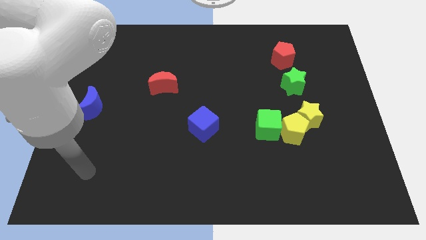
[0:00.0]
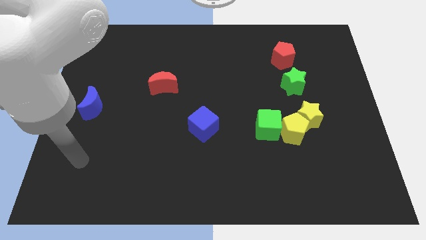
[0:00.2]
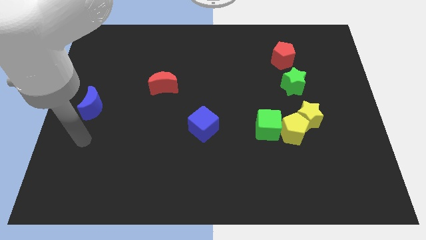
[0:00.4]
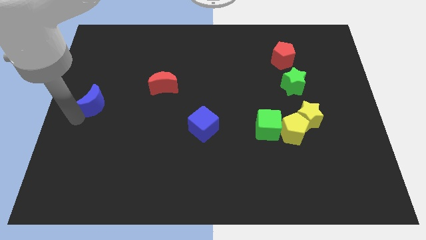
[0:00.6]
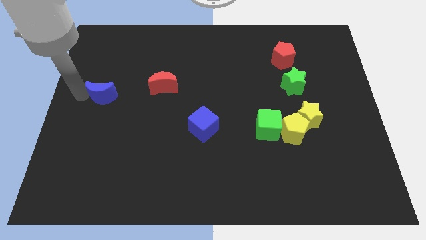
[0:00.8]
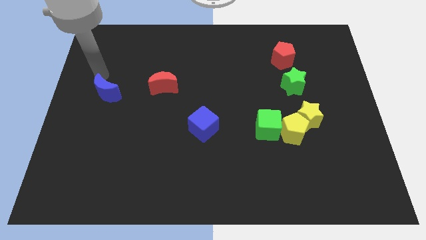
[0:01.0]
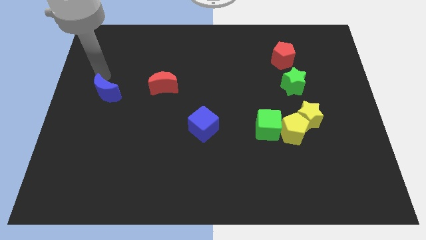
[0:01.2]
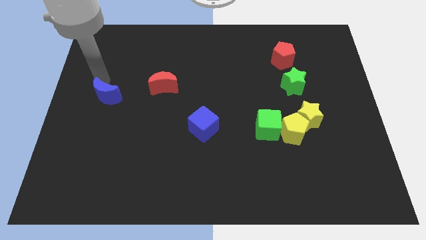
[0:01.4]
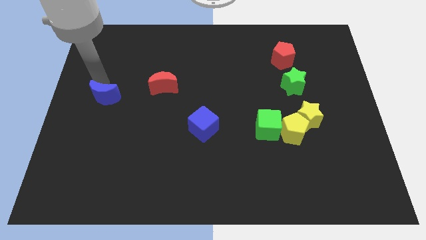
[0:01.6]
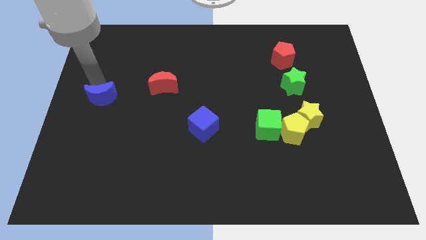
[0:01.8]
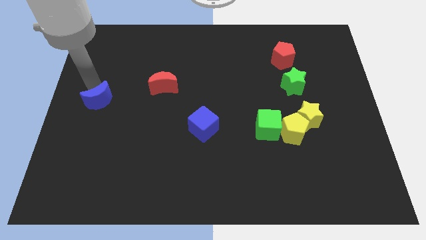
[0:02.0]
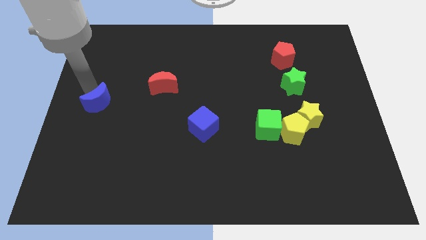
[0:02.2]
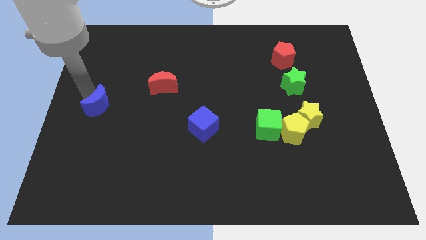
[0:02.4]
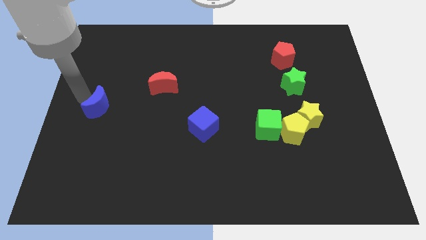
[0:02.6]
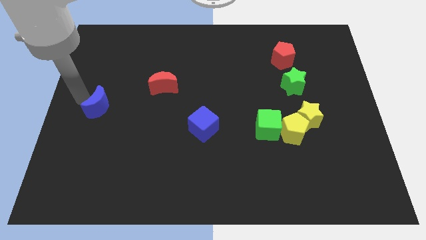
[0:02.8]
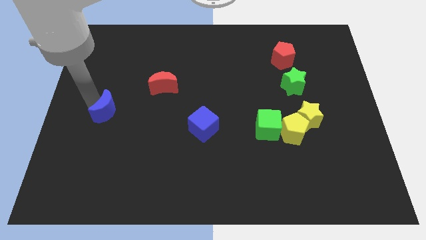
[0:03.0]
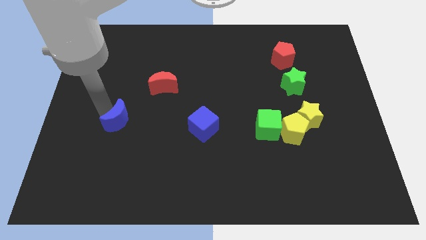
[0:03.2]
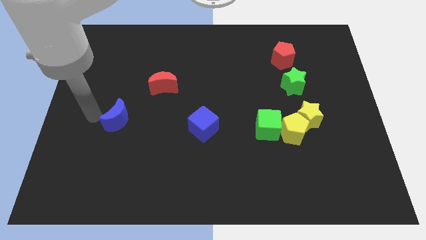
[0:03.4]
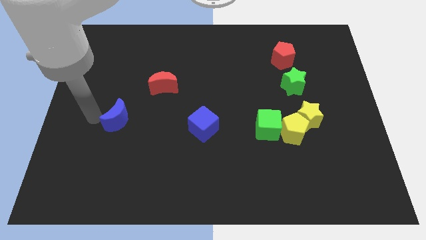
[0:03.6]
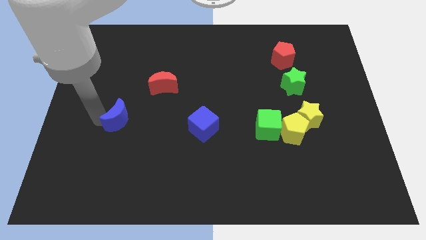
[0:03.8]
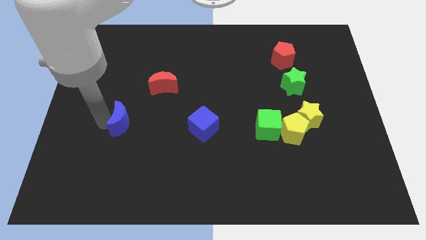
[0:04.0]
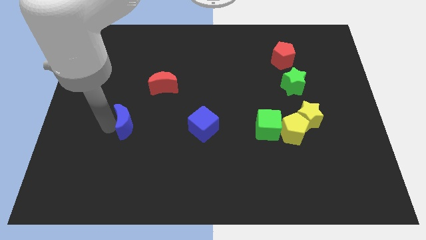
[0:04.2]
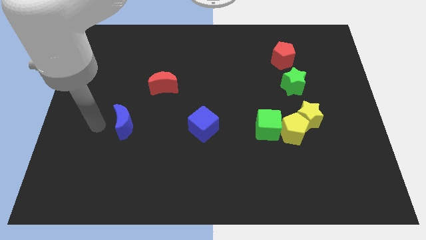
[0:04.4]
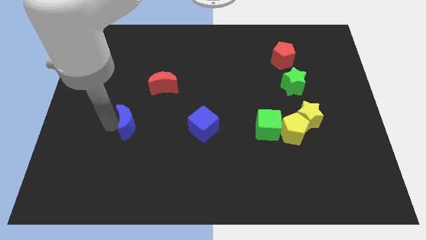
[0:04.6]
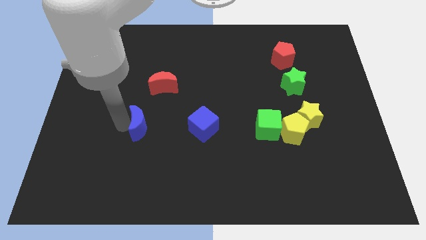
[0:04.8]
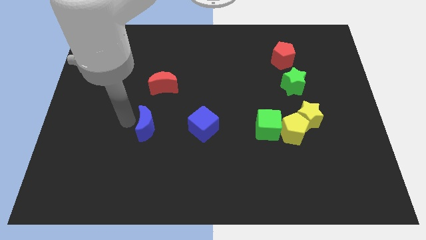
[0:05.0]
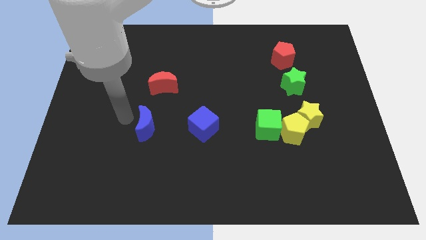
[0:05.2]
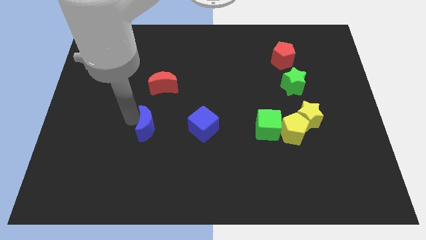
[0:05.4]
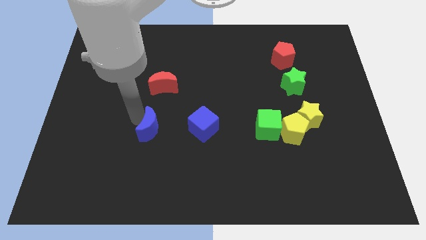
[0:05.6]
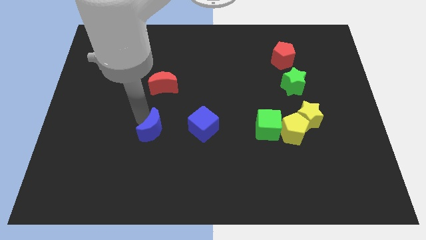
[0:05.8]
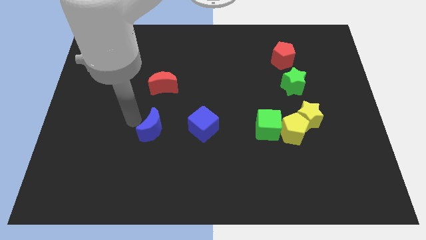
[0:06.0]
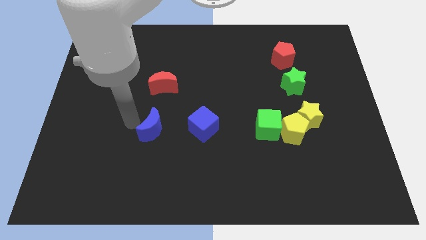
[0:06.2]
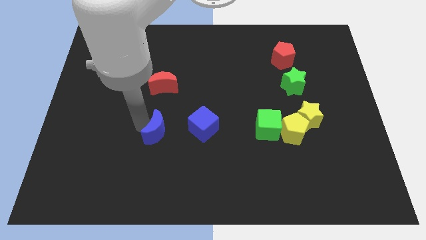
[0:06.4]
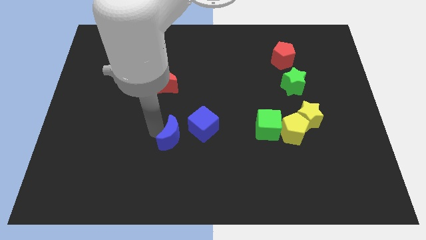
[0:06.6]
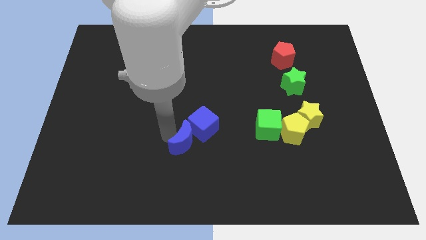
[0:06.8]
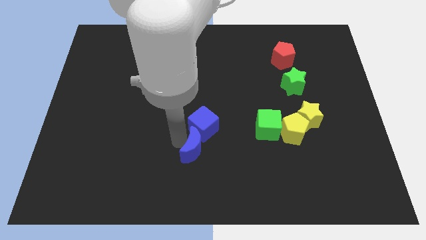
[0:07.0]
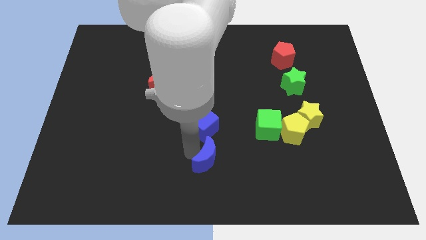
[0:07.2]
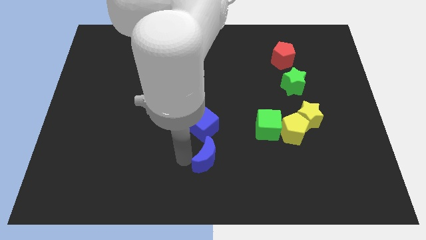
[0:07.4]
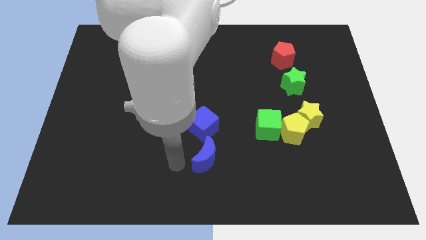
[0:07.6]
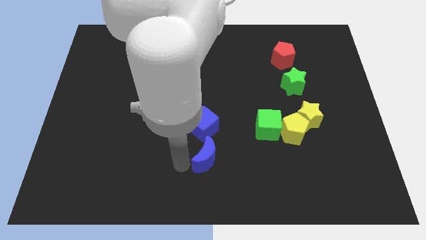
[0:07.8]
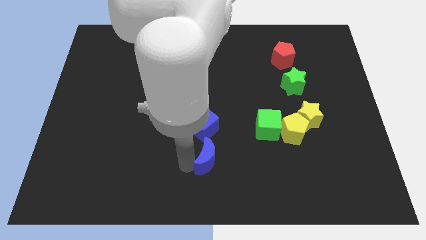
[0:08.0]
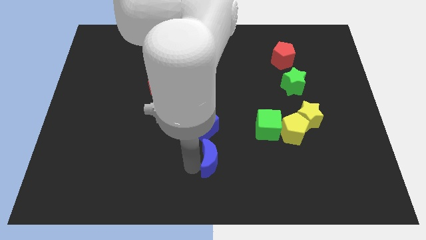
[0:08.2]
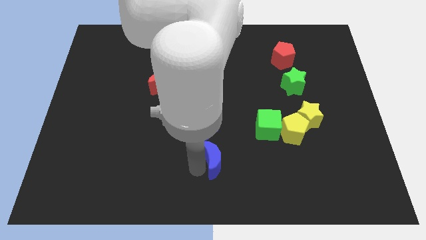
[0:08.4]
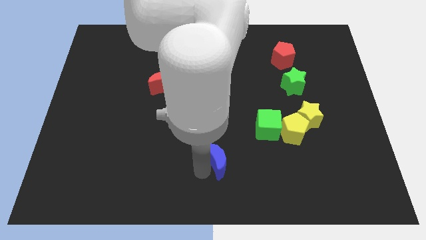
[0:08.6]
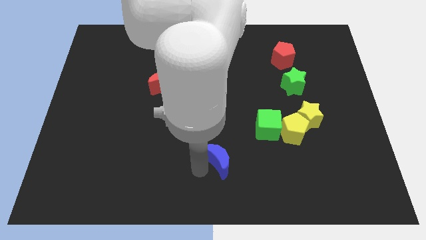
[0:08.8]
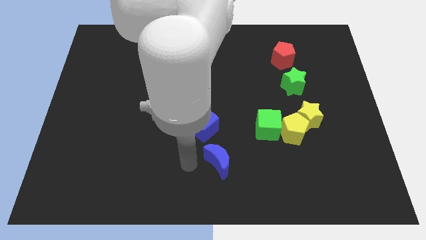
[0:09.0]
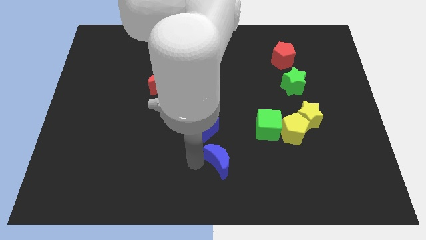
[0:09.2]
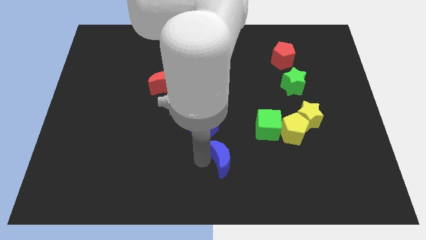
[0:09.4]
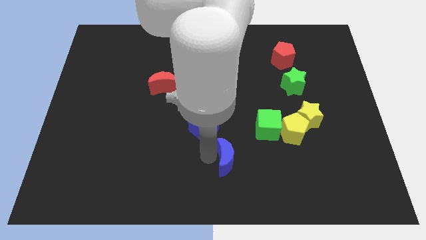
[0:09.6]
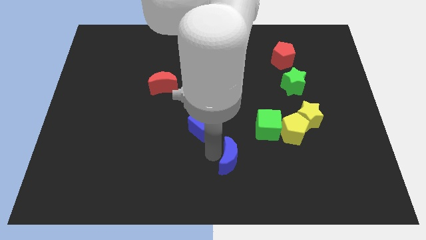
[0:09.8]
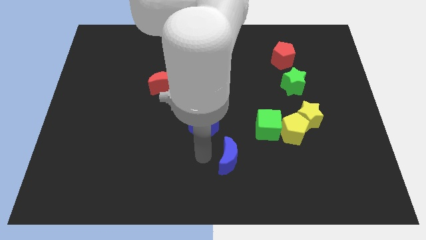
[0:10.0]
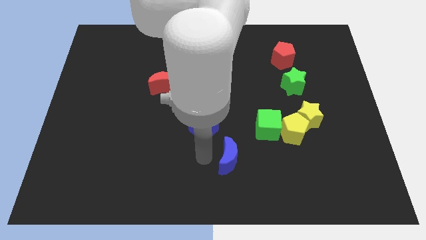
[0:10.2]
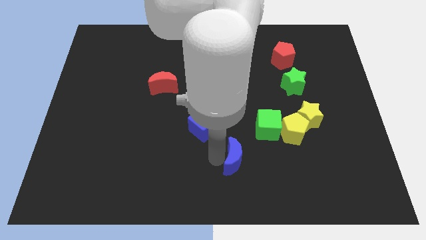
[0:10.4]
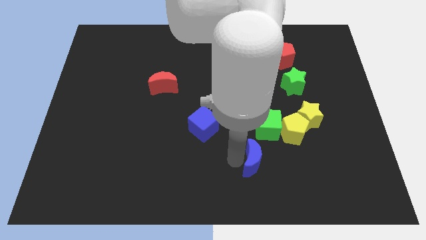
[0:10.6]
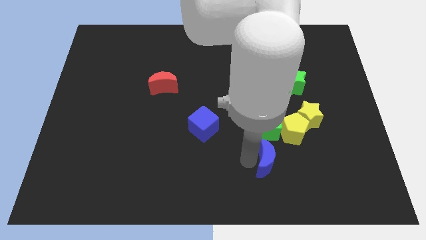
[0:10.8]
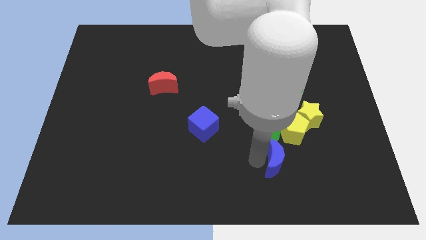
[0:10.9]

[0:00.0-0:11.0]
push the blue moon to the bottom of the yellow pentagon
